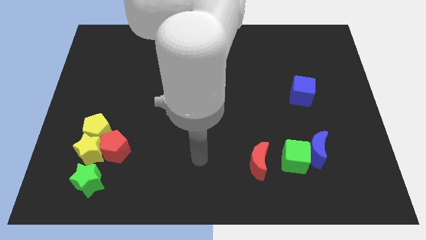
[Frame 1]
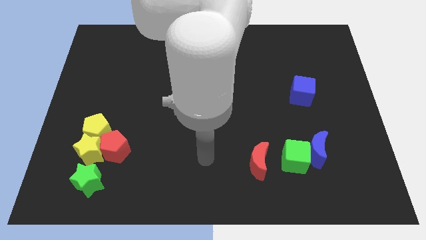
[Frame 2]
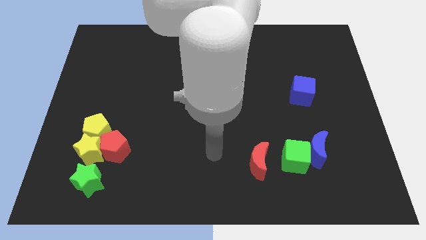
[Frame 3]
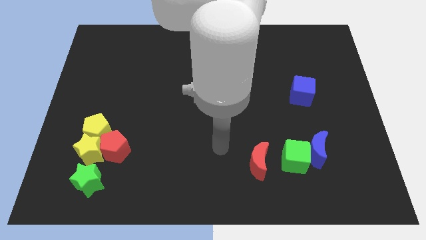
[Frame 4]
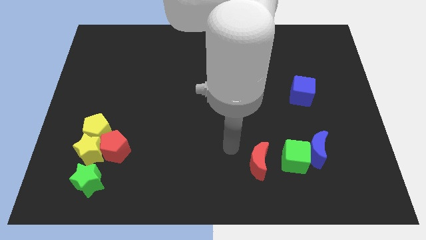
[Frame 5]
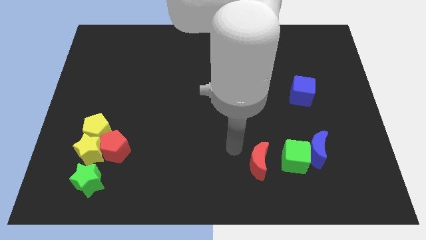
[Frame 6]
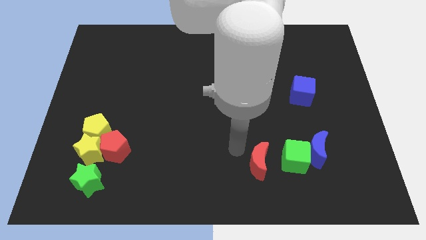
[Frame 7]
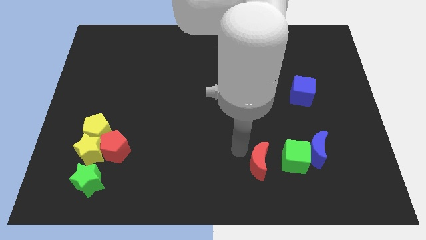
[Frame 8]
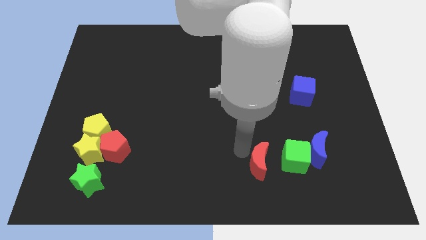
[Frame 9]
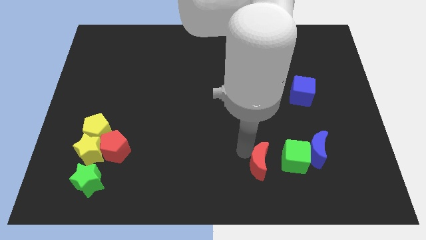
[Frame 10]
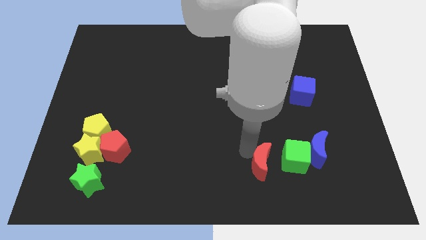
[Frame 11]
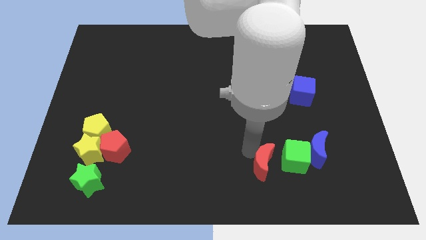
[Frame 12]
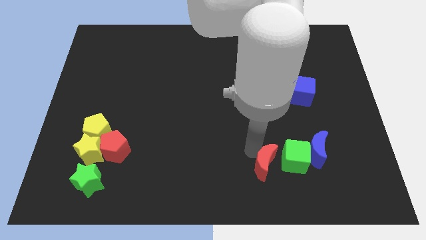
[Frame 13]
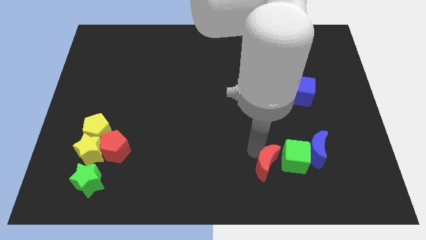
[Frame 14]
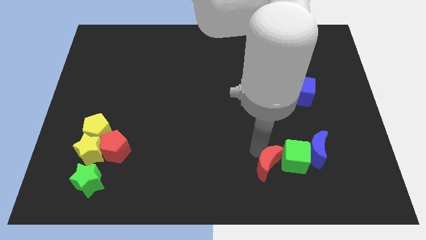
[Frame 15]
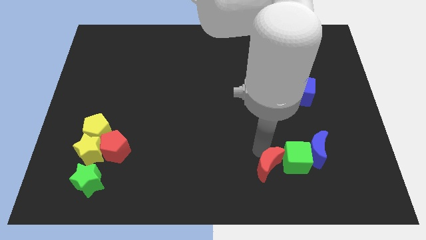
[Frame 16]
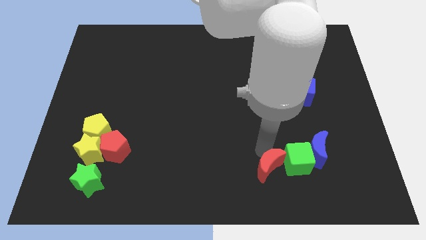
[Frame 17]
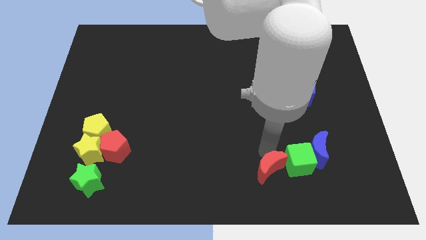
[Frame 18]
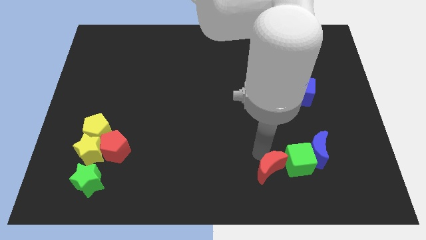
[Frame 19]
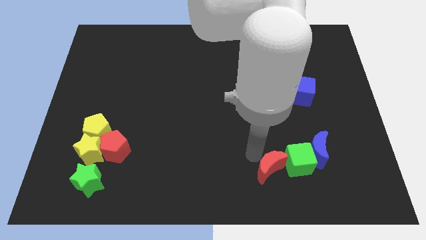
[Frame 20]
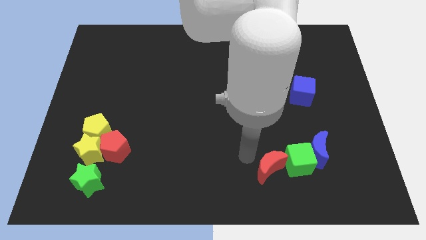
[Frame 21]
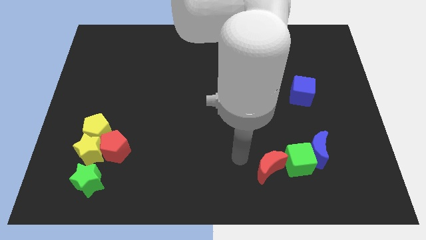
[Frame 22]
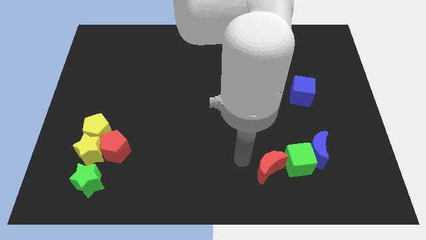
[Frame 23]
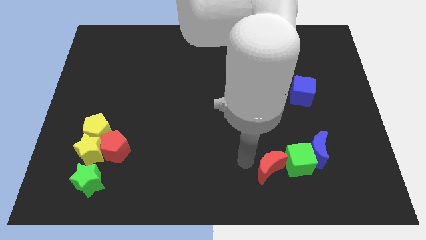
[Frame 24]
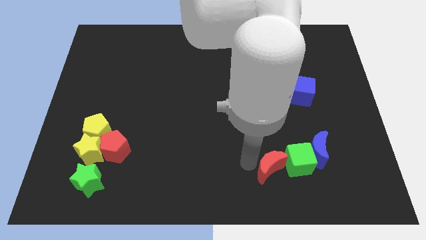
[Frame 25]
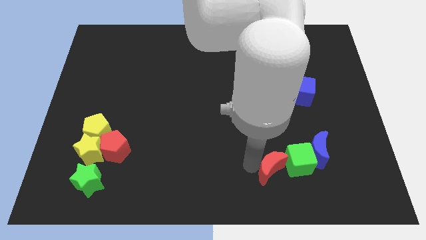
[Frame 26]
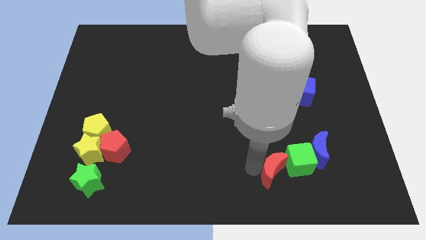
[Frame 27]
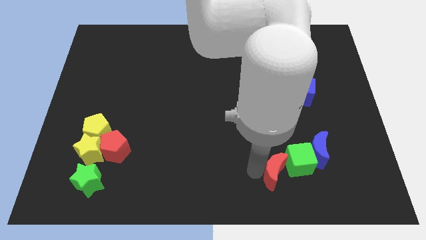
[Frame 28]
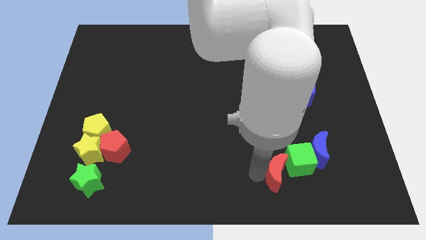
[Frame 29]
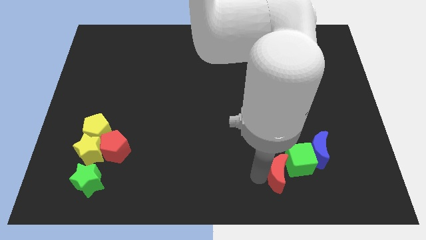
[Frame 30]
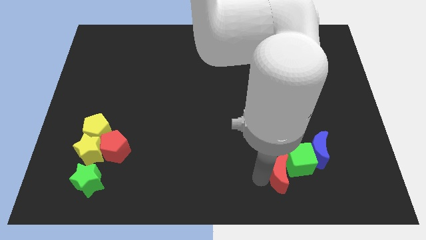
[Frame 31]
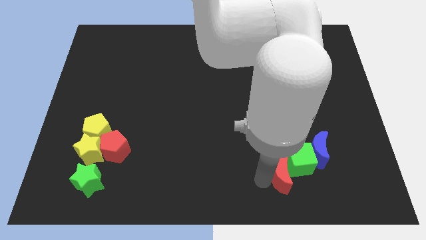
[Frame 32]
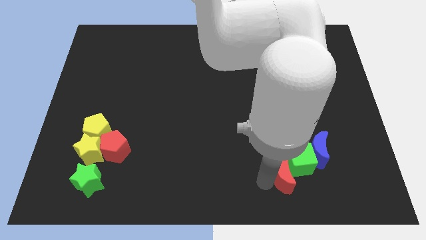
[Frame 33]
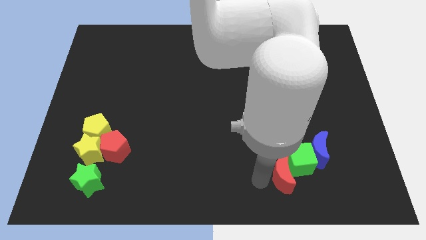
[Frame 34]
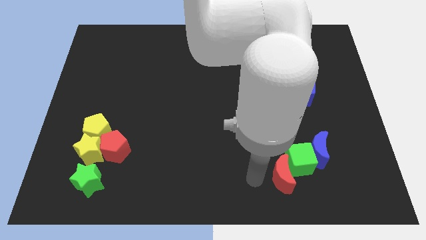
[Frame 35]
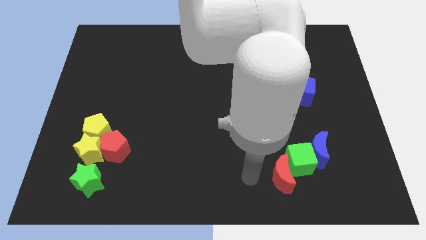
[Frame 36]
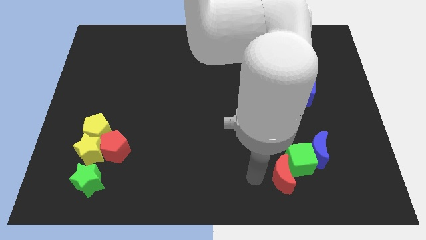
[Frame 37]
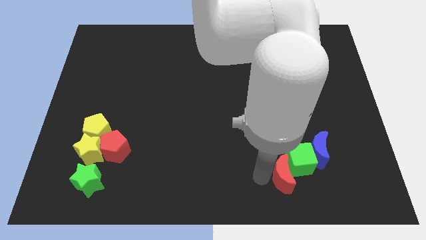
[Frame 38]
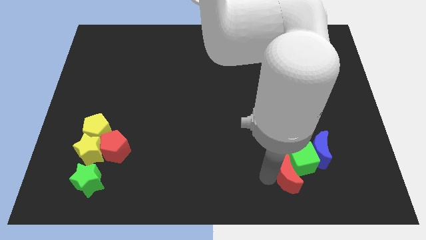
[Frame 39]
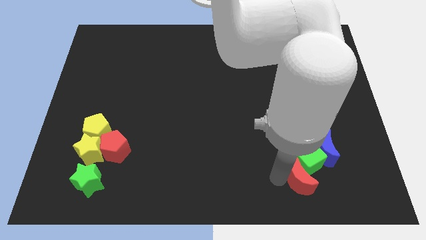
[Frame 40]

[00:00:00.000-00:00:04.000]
push the red moon to the right slightly

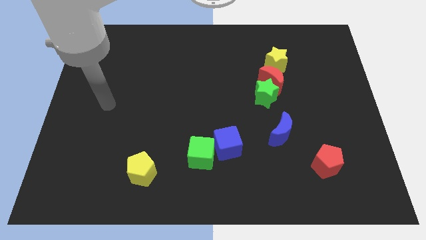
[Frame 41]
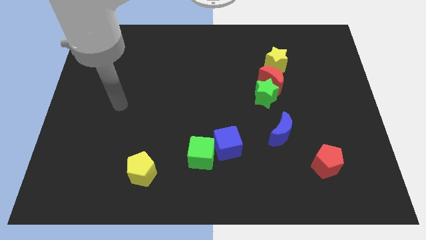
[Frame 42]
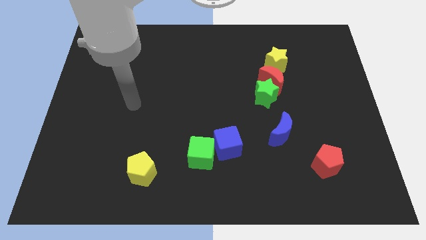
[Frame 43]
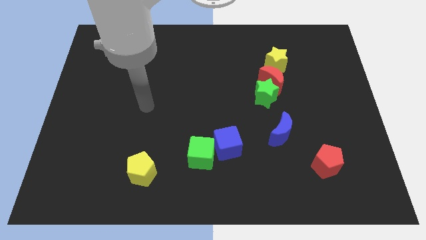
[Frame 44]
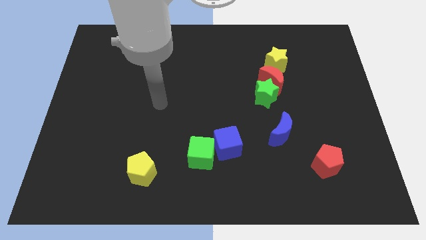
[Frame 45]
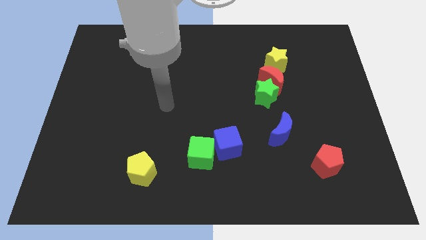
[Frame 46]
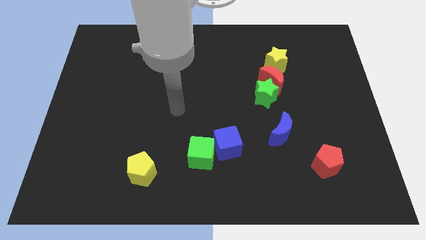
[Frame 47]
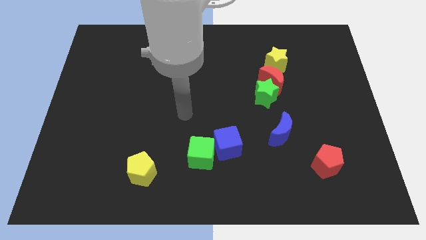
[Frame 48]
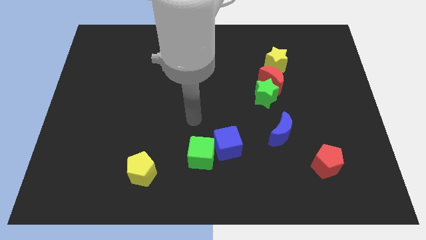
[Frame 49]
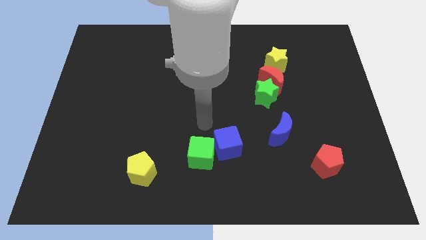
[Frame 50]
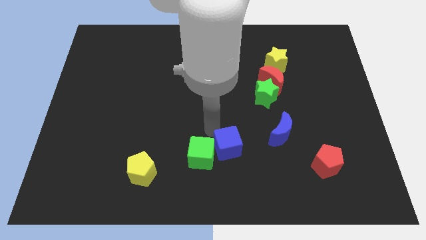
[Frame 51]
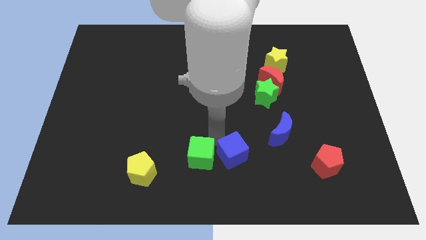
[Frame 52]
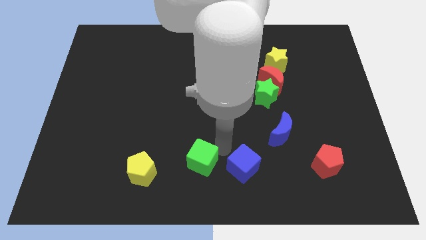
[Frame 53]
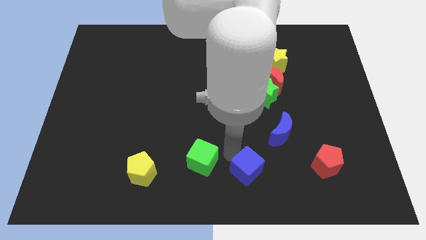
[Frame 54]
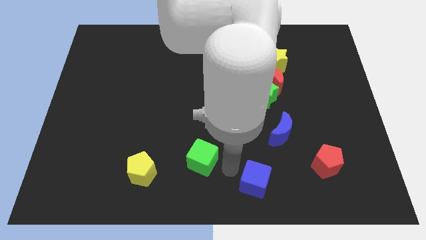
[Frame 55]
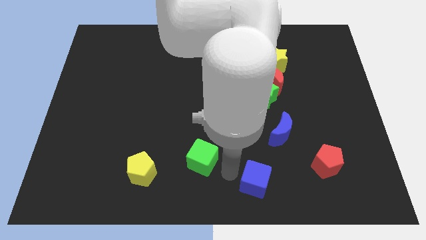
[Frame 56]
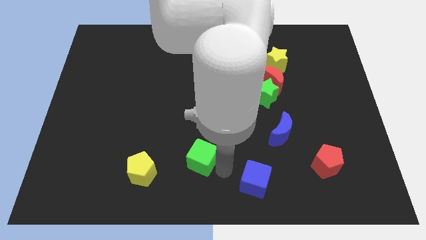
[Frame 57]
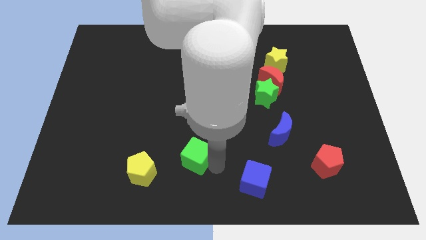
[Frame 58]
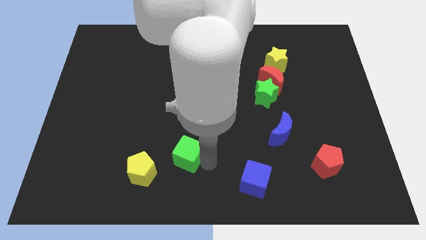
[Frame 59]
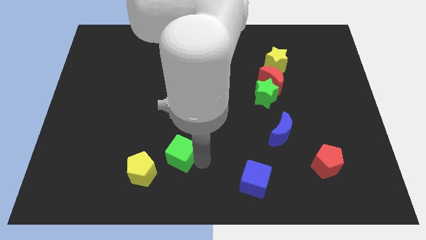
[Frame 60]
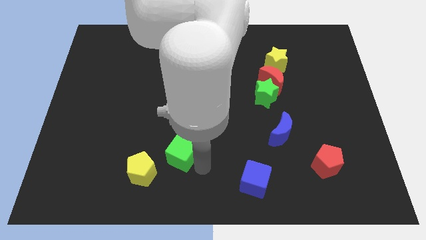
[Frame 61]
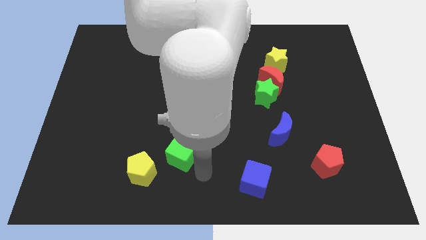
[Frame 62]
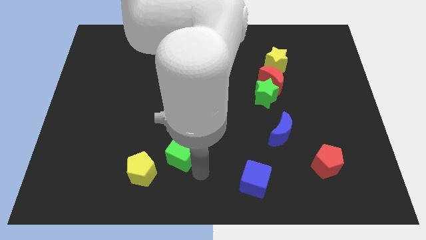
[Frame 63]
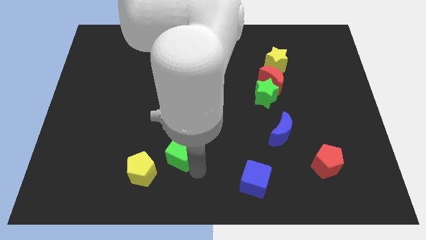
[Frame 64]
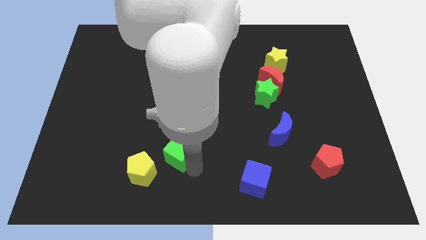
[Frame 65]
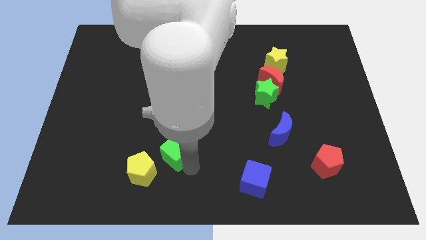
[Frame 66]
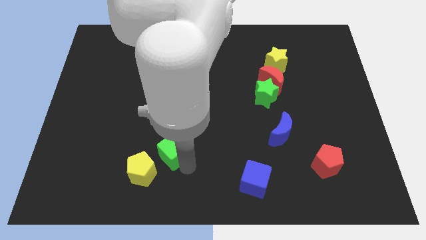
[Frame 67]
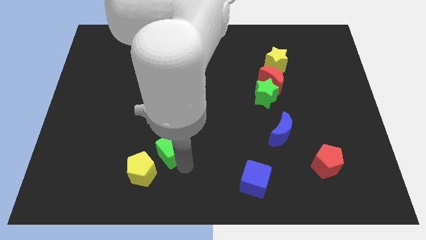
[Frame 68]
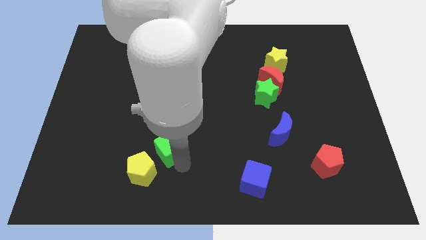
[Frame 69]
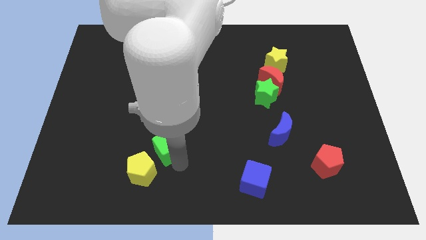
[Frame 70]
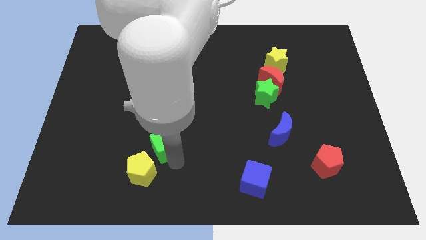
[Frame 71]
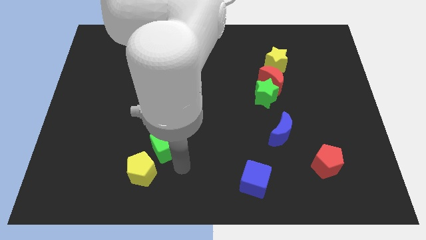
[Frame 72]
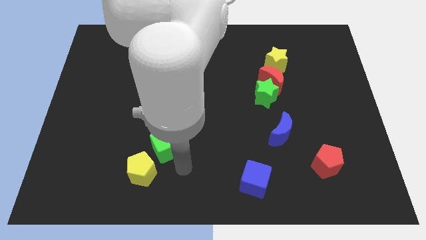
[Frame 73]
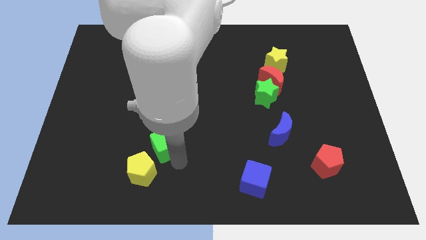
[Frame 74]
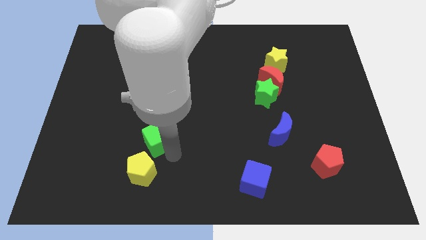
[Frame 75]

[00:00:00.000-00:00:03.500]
push the green cube somewhat up and left diagonally

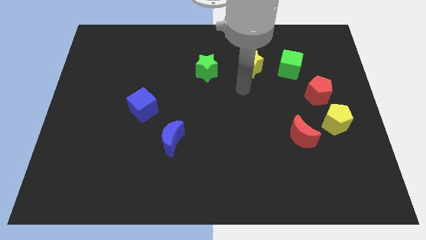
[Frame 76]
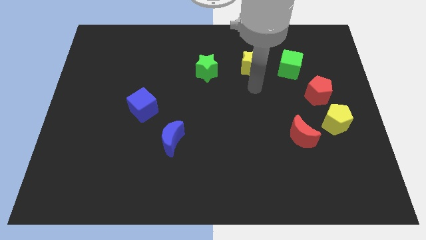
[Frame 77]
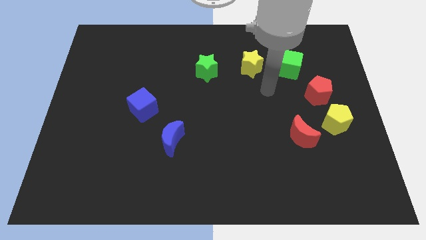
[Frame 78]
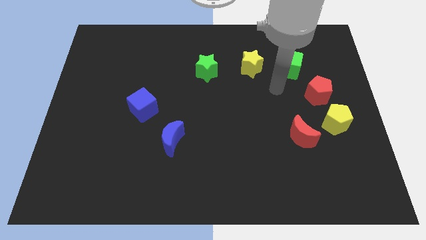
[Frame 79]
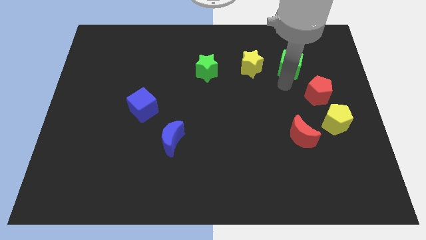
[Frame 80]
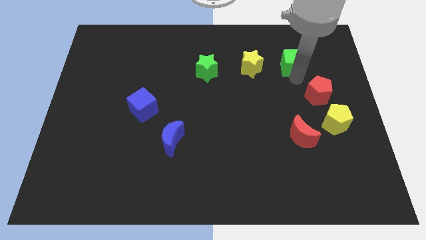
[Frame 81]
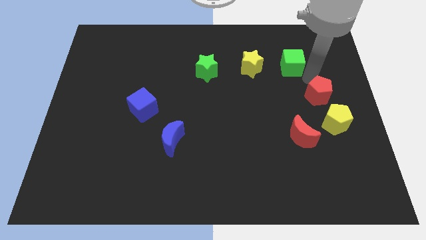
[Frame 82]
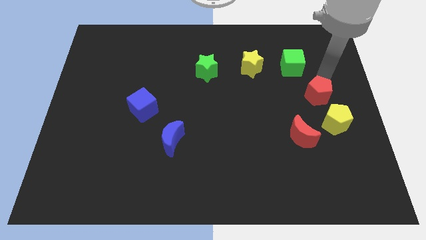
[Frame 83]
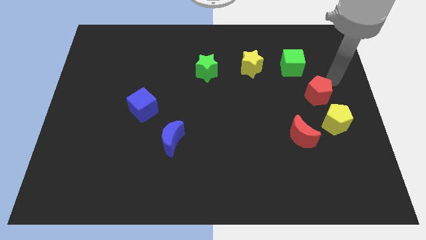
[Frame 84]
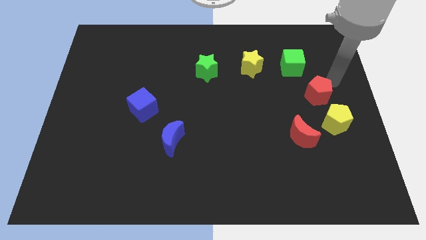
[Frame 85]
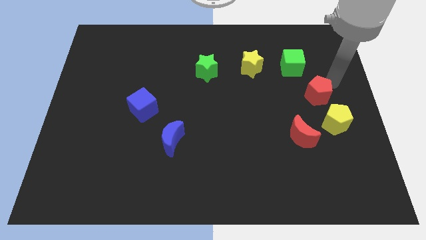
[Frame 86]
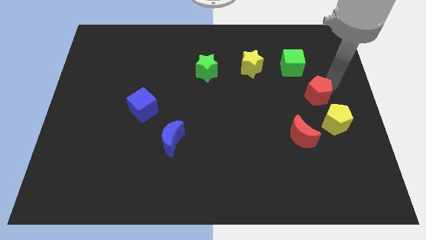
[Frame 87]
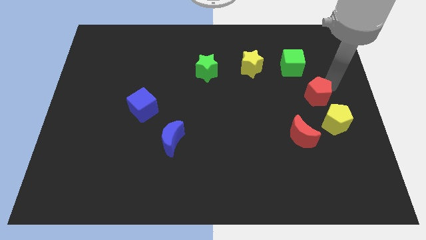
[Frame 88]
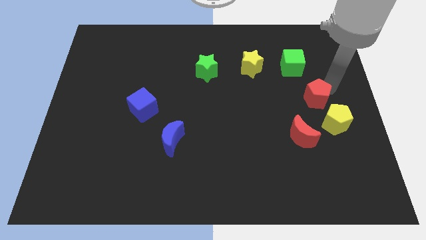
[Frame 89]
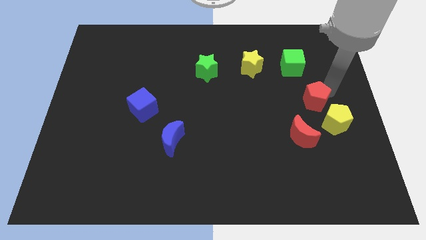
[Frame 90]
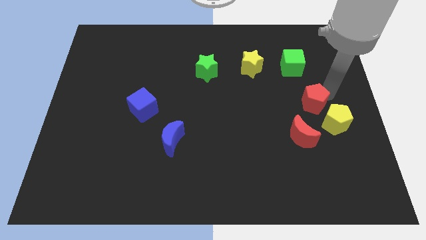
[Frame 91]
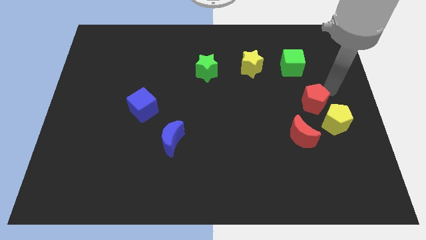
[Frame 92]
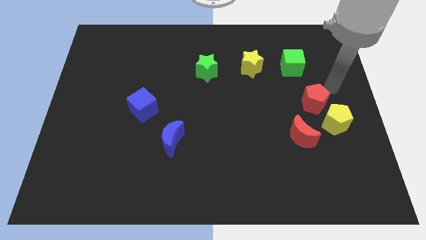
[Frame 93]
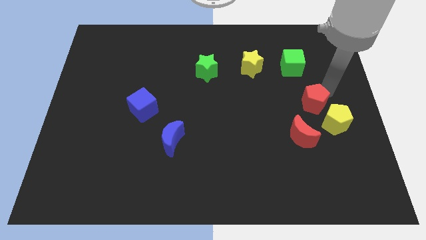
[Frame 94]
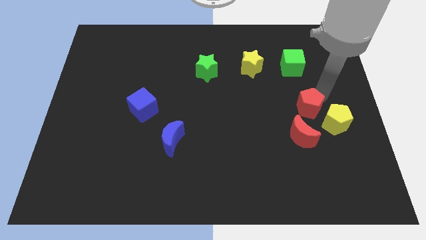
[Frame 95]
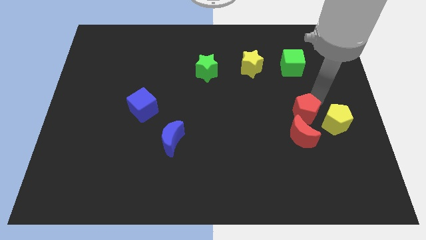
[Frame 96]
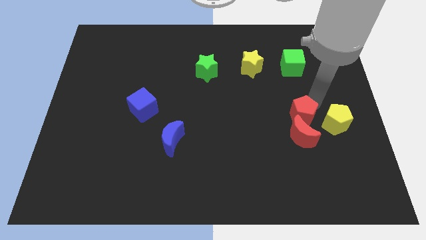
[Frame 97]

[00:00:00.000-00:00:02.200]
slide the red pentagon a little downwards and to the left diagonally
